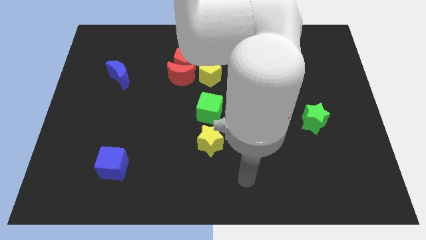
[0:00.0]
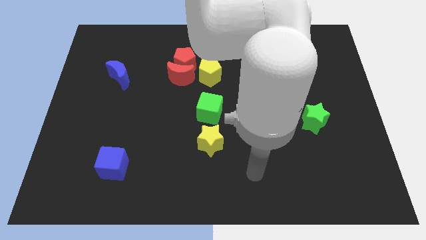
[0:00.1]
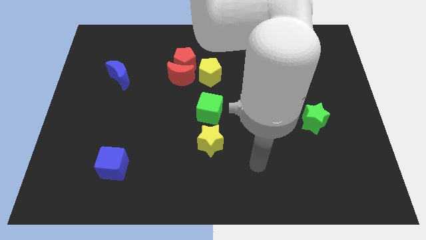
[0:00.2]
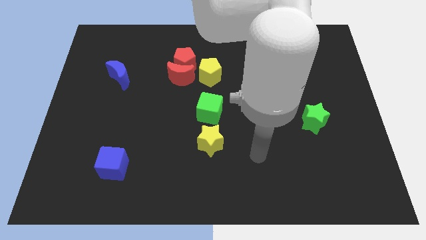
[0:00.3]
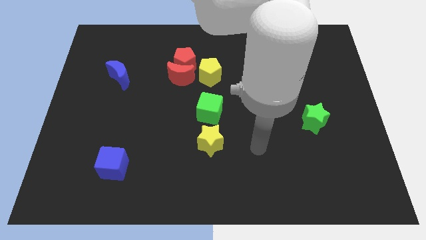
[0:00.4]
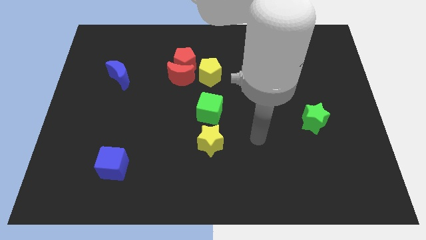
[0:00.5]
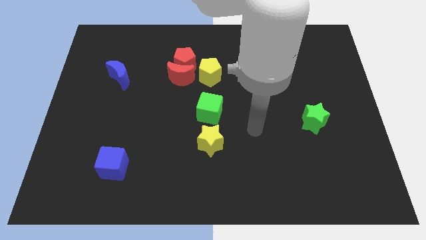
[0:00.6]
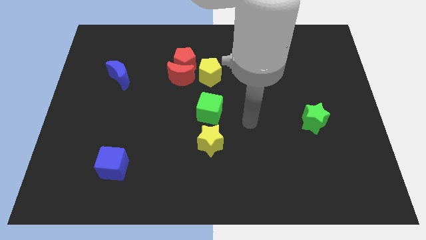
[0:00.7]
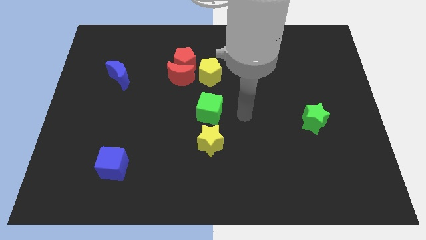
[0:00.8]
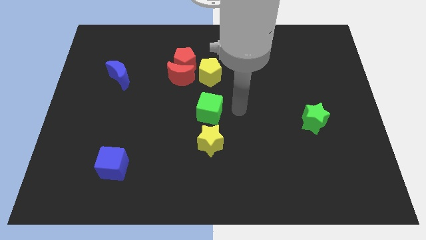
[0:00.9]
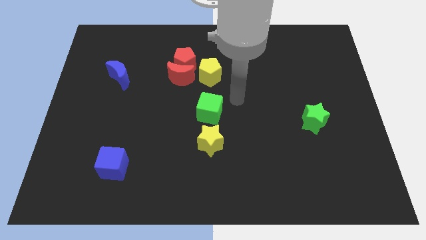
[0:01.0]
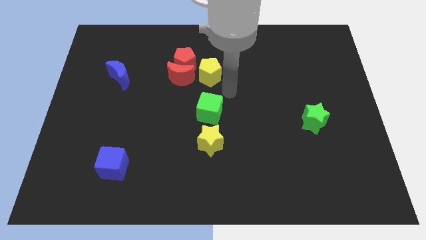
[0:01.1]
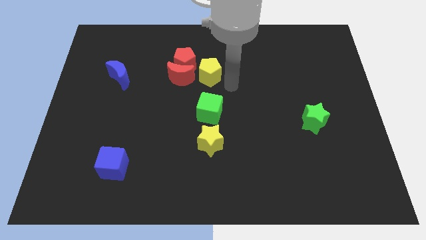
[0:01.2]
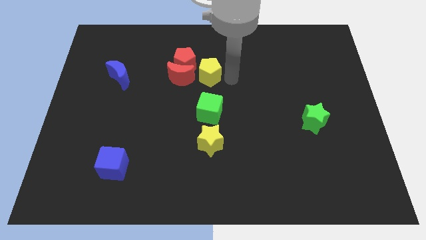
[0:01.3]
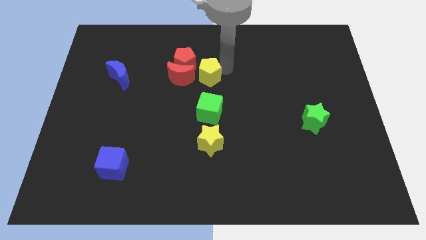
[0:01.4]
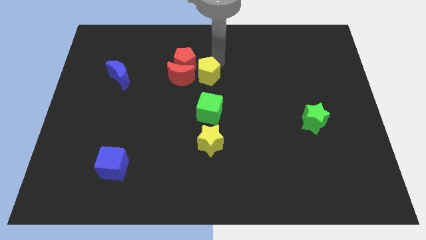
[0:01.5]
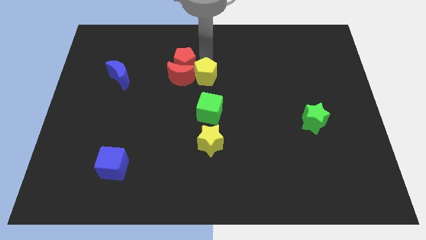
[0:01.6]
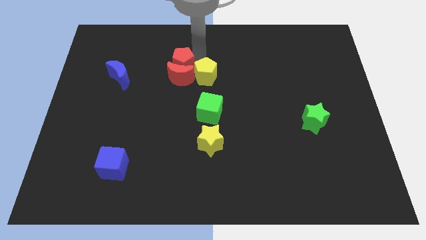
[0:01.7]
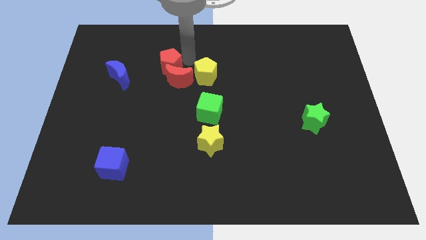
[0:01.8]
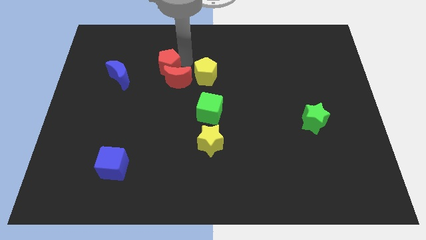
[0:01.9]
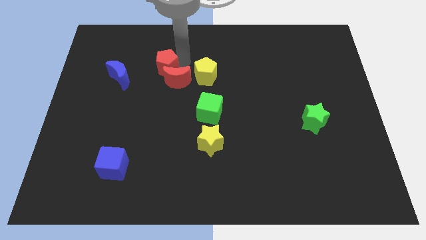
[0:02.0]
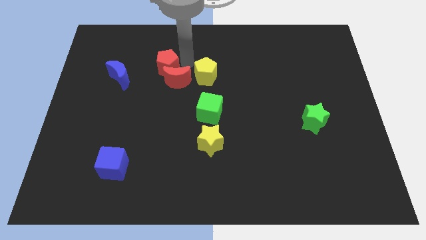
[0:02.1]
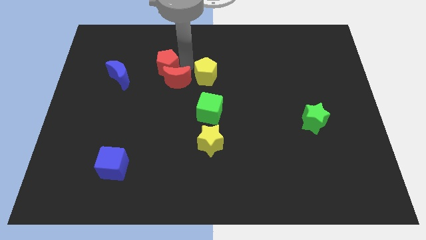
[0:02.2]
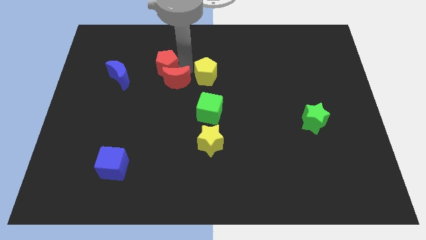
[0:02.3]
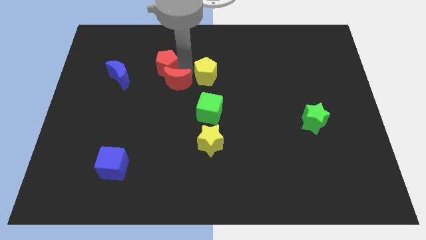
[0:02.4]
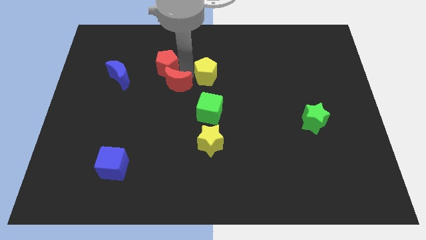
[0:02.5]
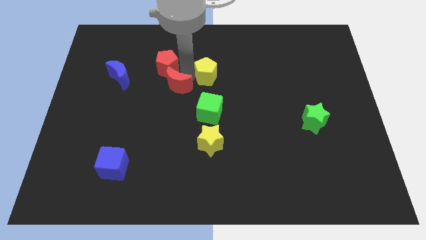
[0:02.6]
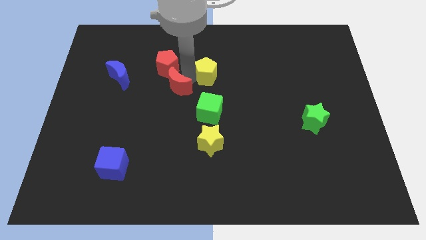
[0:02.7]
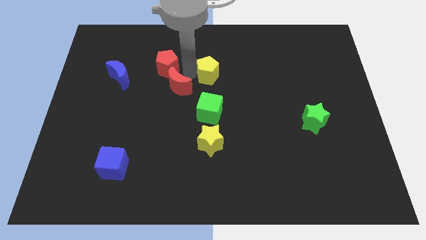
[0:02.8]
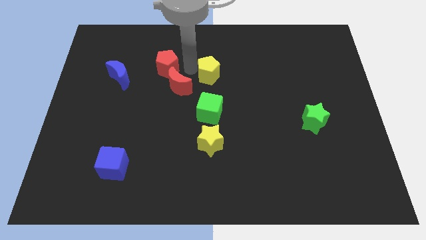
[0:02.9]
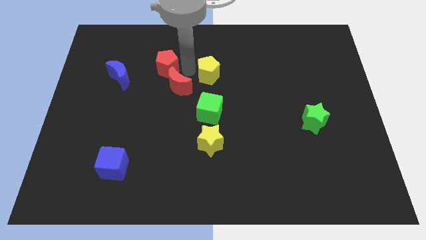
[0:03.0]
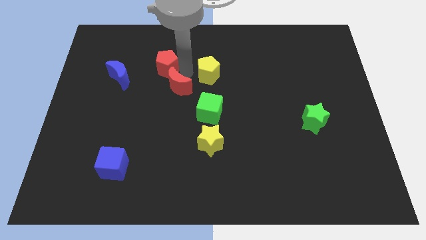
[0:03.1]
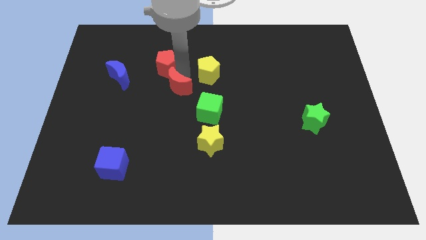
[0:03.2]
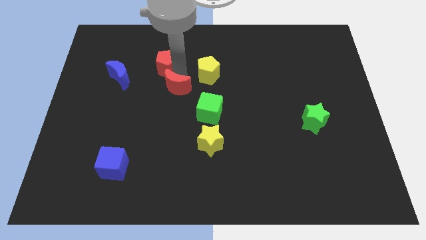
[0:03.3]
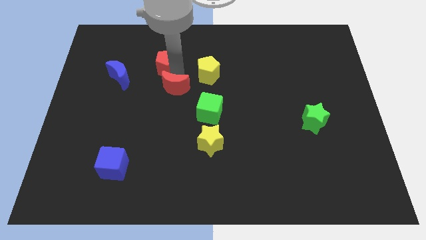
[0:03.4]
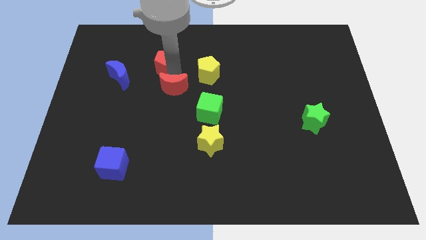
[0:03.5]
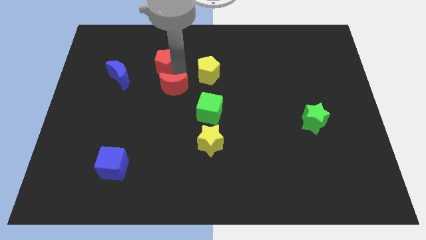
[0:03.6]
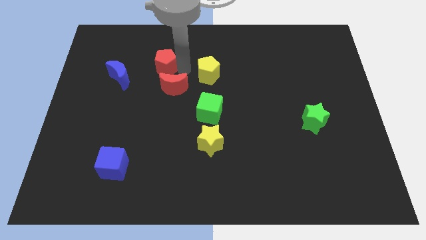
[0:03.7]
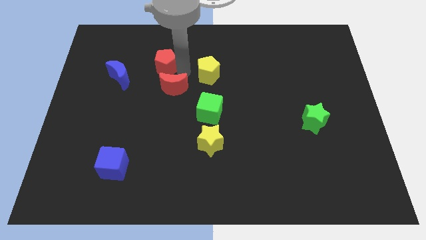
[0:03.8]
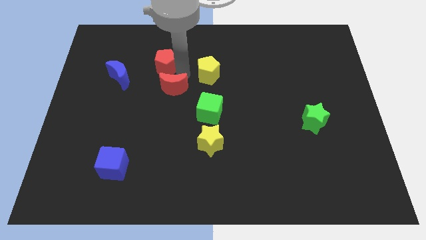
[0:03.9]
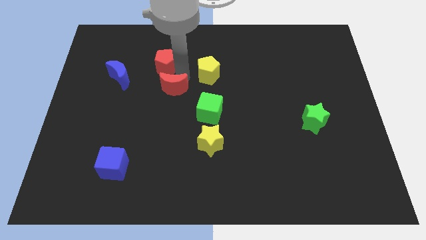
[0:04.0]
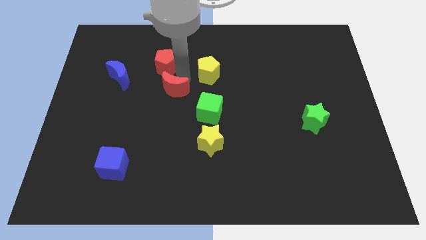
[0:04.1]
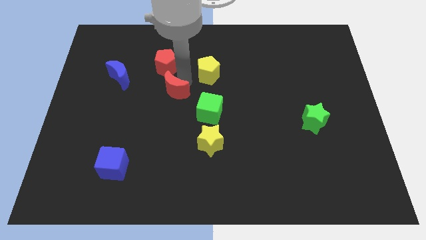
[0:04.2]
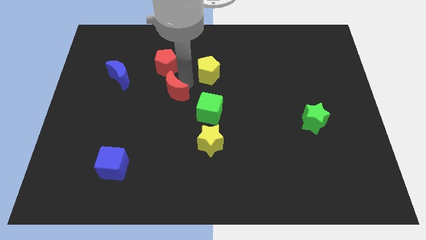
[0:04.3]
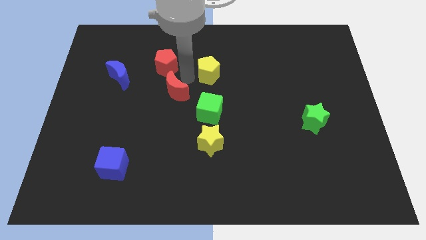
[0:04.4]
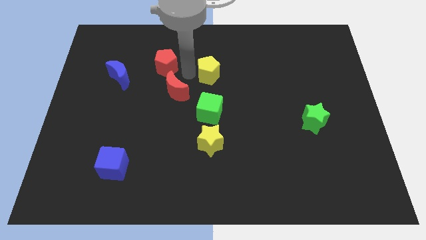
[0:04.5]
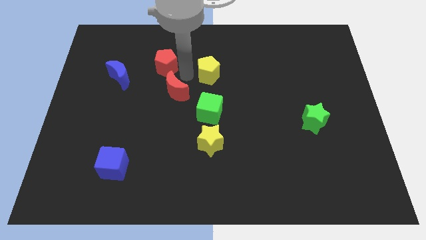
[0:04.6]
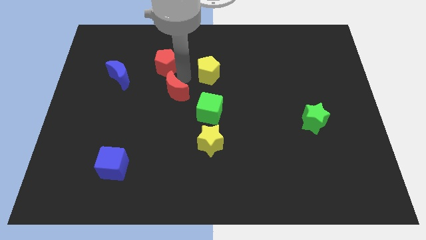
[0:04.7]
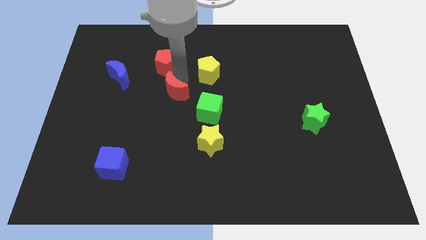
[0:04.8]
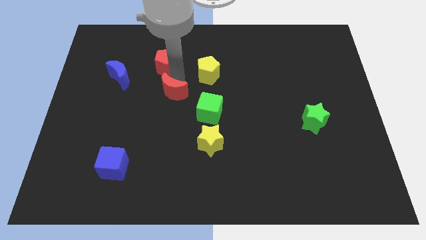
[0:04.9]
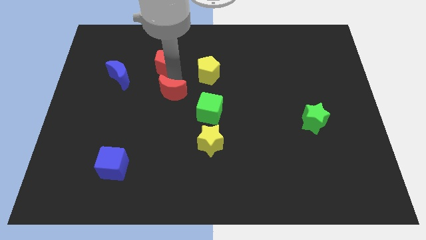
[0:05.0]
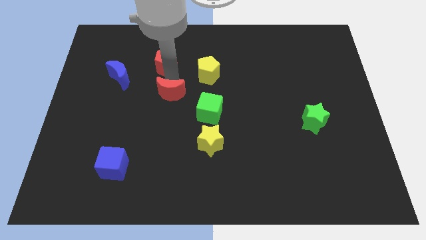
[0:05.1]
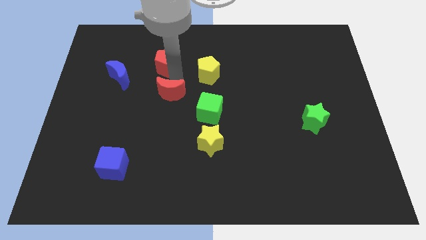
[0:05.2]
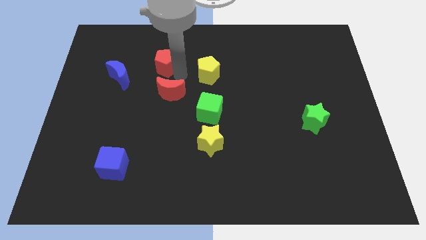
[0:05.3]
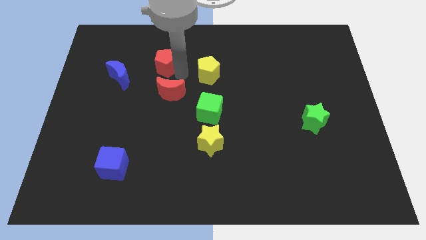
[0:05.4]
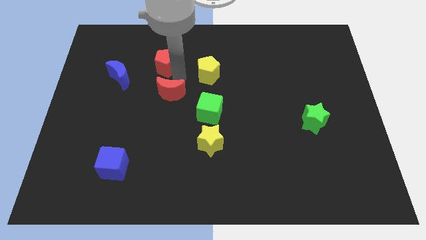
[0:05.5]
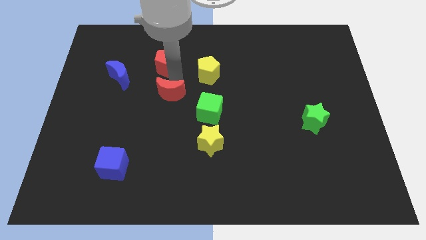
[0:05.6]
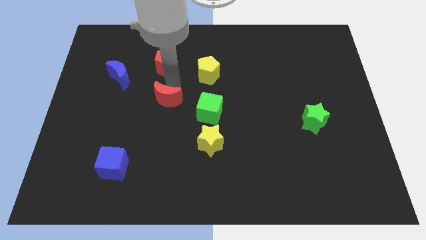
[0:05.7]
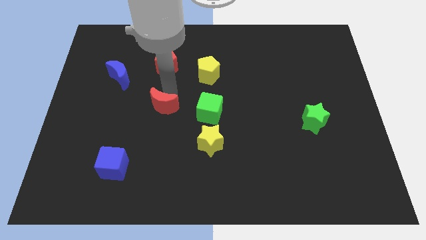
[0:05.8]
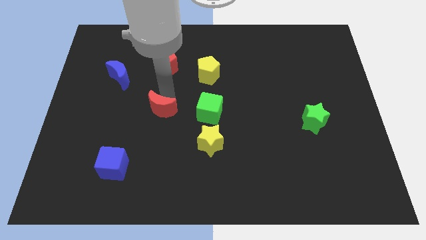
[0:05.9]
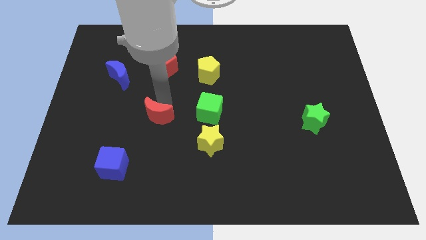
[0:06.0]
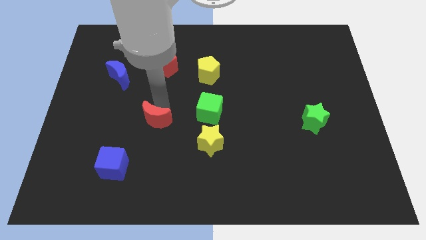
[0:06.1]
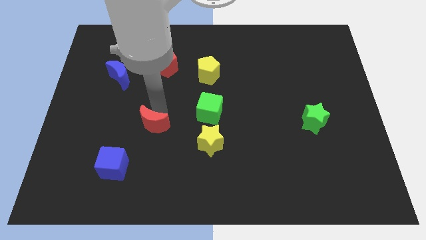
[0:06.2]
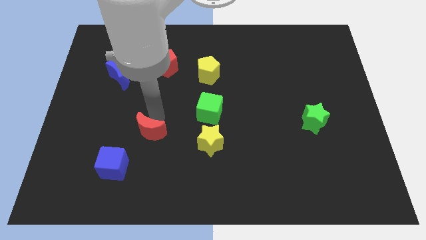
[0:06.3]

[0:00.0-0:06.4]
slide the red moon to the top right side of the blue cube

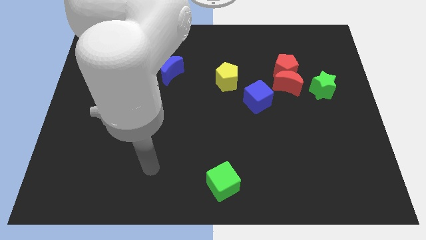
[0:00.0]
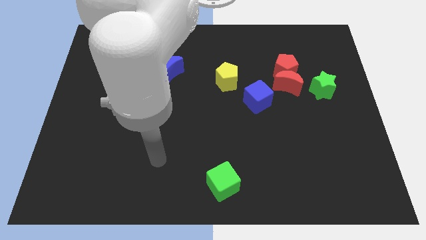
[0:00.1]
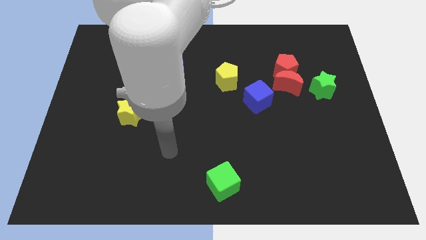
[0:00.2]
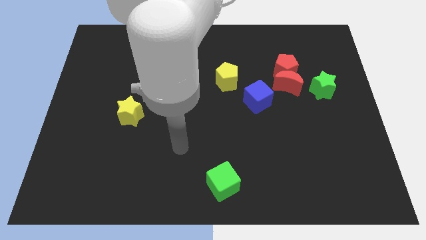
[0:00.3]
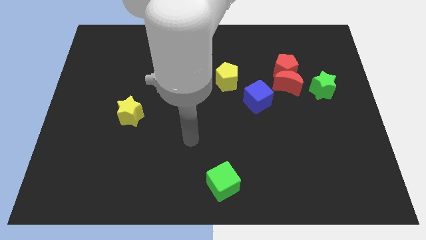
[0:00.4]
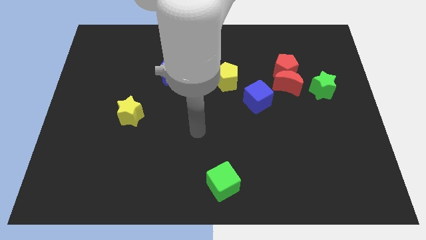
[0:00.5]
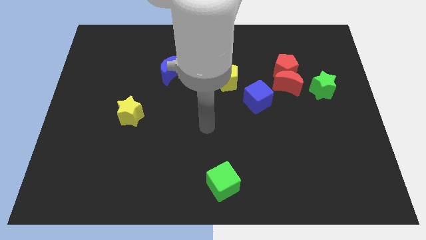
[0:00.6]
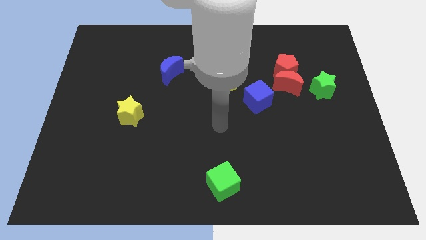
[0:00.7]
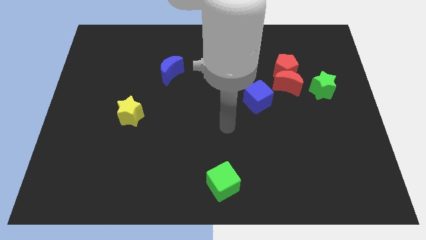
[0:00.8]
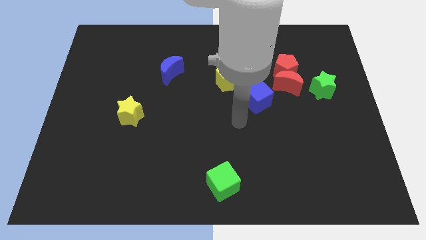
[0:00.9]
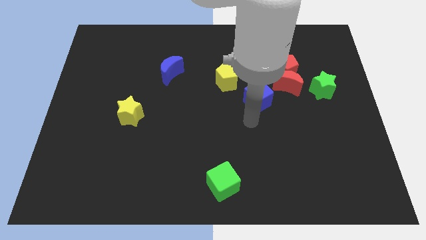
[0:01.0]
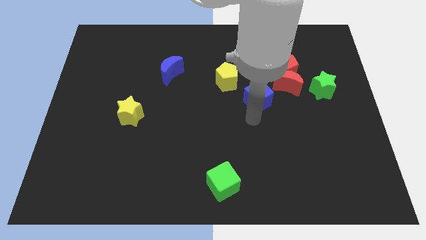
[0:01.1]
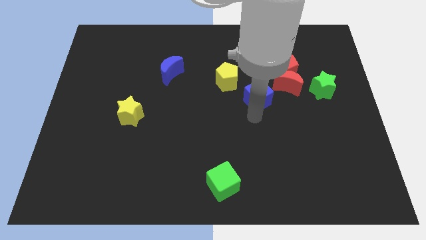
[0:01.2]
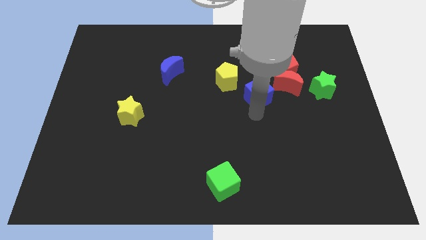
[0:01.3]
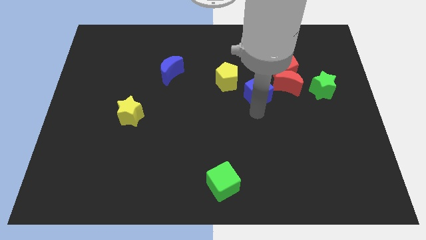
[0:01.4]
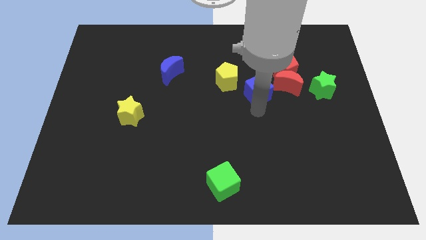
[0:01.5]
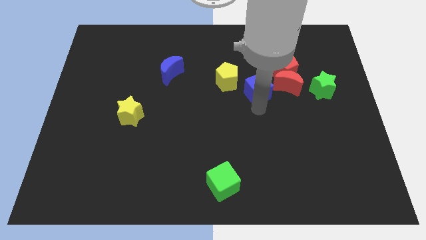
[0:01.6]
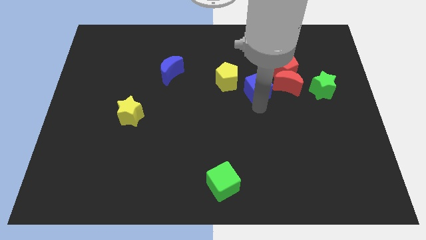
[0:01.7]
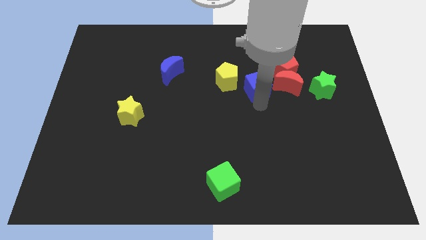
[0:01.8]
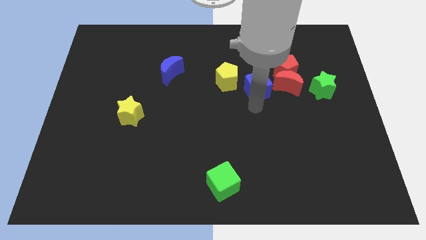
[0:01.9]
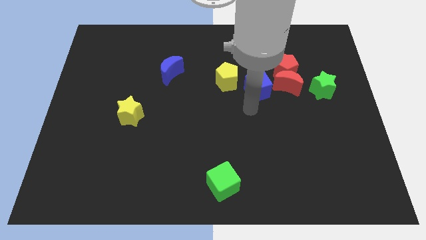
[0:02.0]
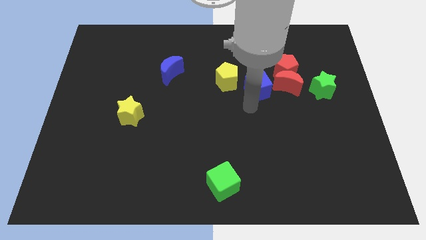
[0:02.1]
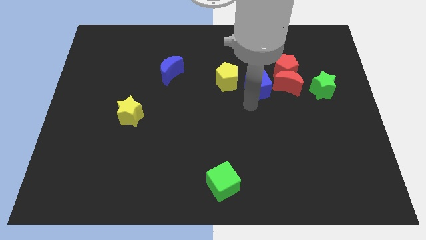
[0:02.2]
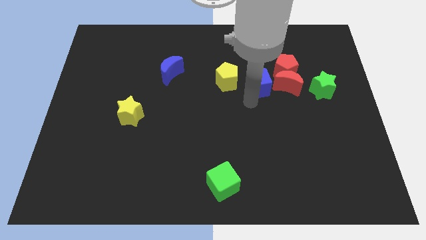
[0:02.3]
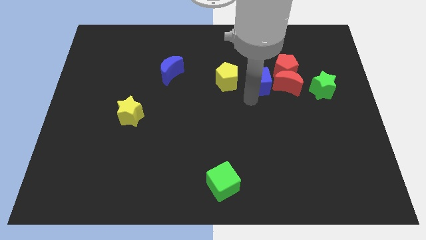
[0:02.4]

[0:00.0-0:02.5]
push the blue cube diagonally up and to the left of the red moon
